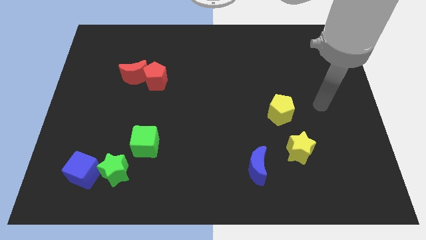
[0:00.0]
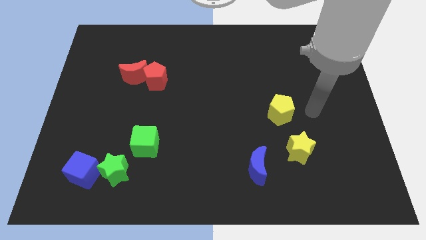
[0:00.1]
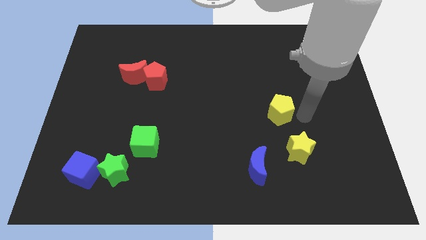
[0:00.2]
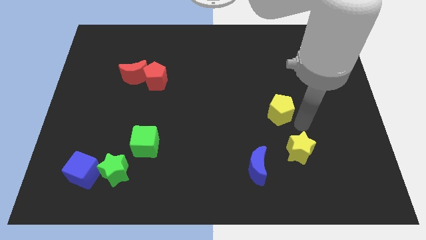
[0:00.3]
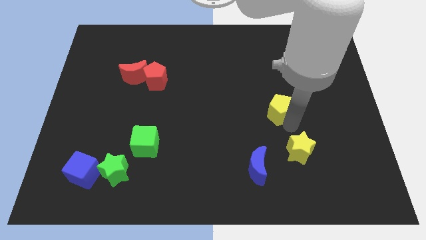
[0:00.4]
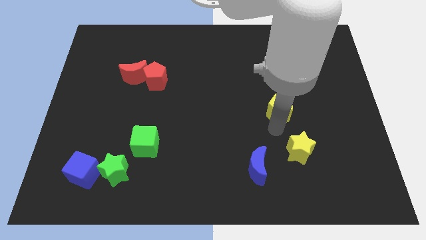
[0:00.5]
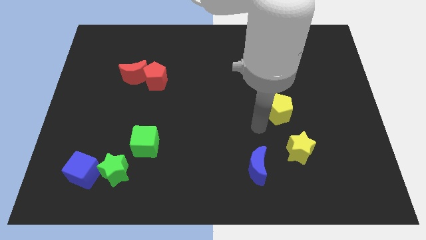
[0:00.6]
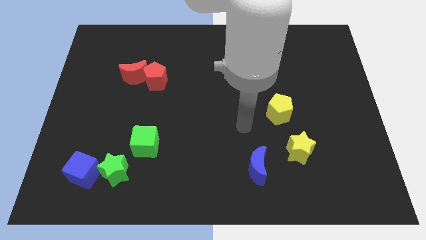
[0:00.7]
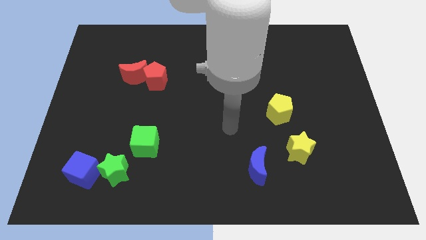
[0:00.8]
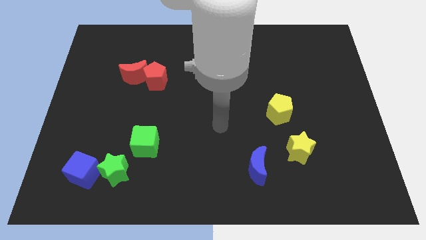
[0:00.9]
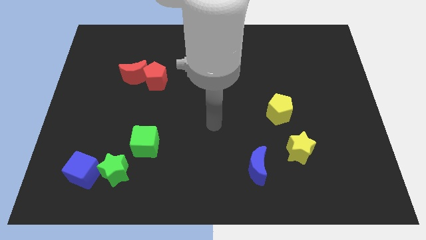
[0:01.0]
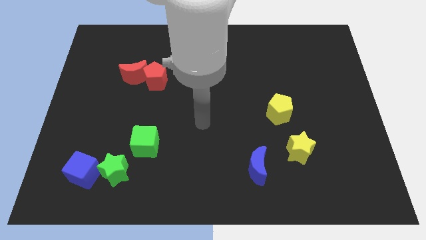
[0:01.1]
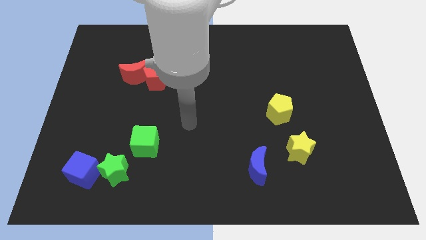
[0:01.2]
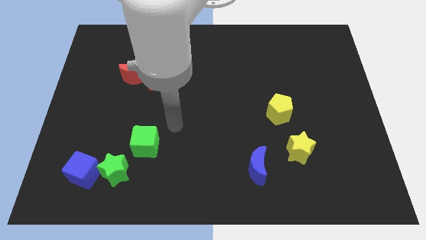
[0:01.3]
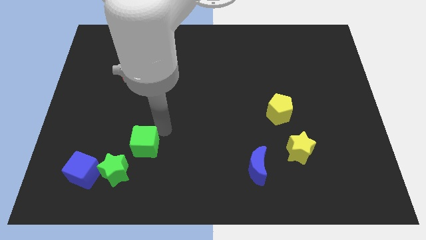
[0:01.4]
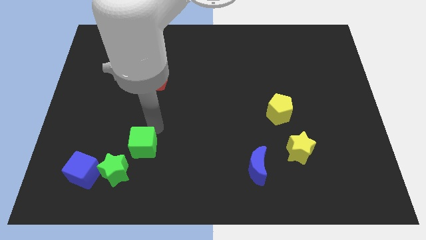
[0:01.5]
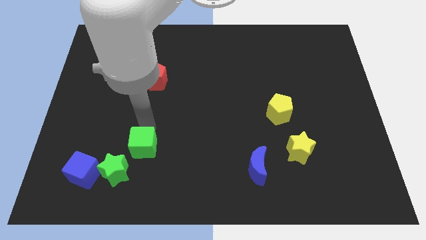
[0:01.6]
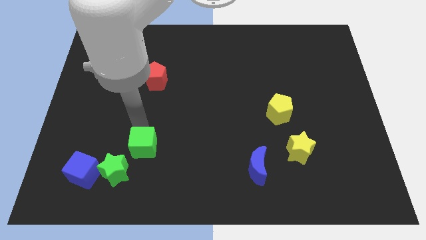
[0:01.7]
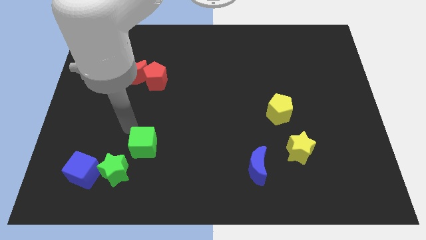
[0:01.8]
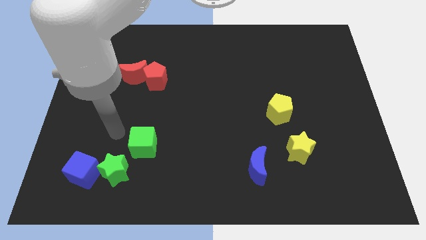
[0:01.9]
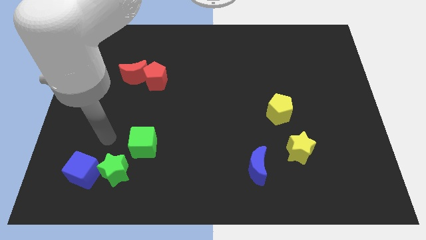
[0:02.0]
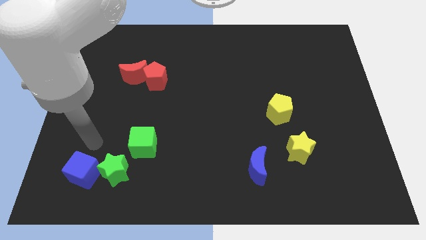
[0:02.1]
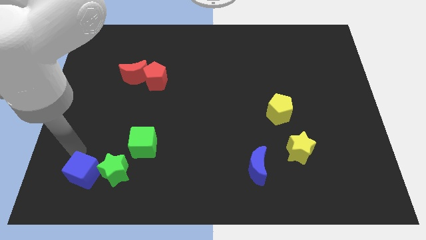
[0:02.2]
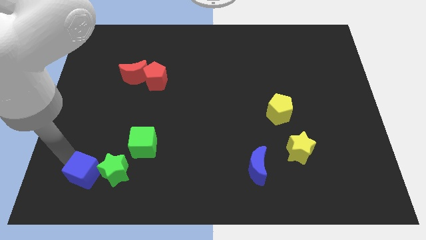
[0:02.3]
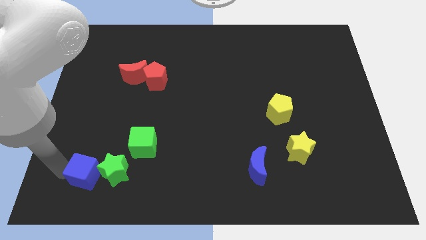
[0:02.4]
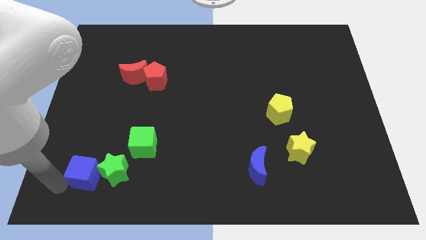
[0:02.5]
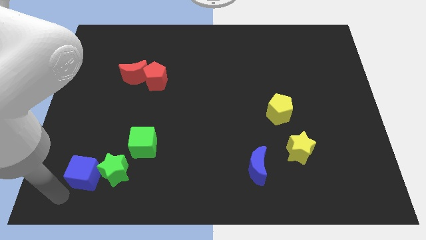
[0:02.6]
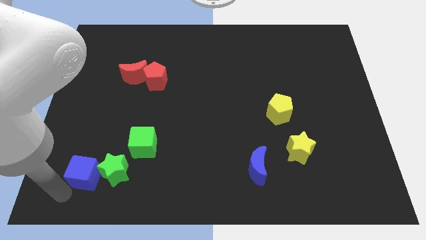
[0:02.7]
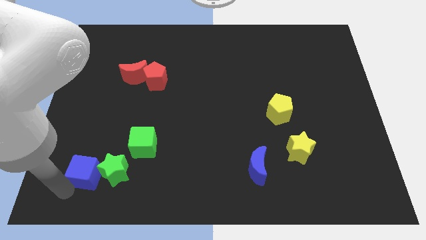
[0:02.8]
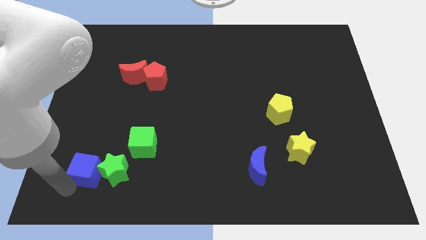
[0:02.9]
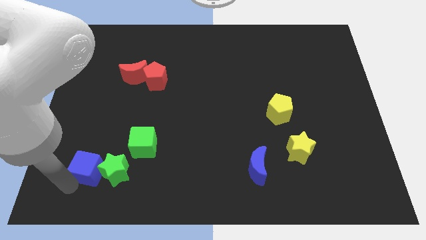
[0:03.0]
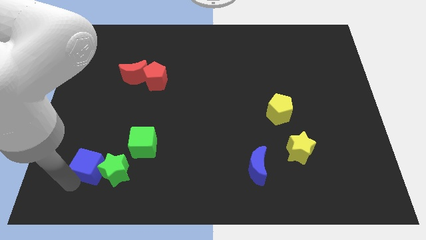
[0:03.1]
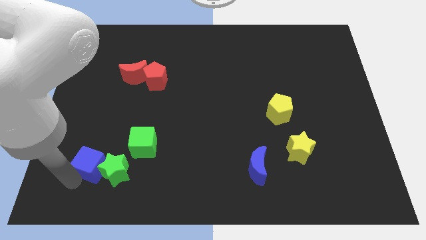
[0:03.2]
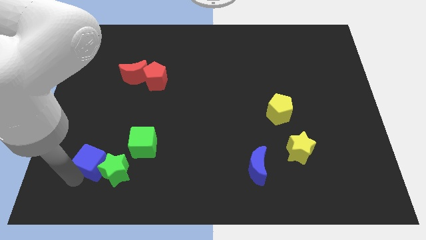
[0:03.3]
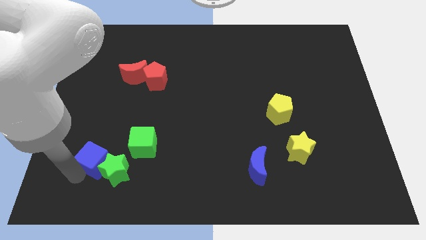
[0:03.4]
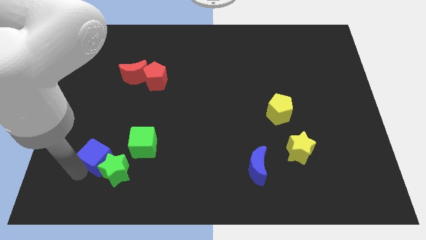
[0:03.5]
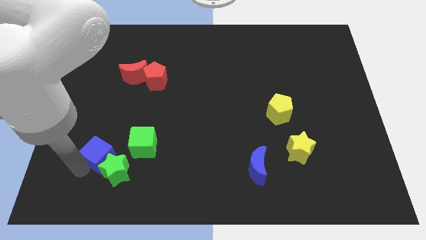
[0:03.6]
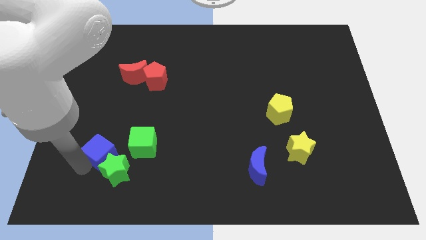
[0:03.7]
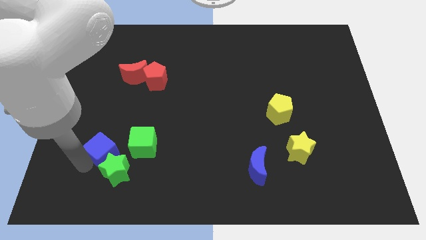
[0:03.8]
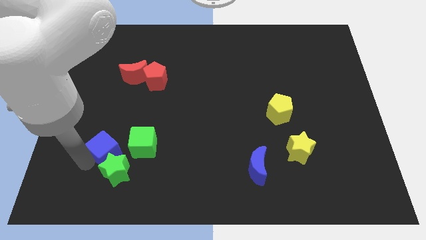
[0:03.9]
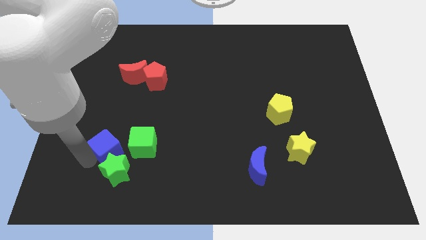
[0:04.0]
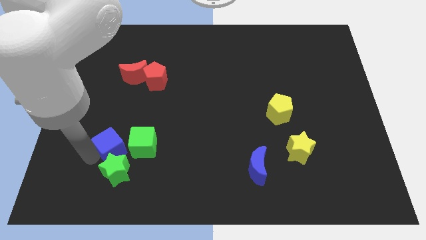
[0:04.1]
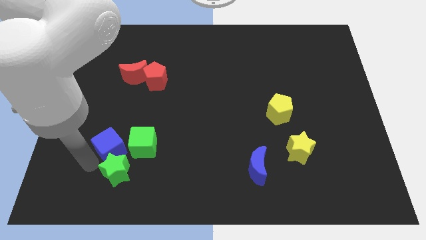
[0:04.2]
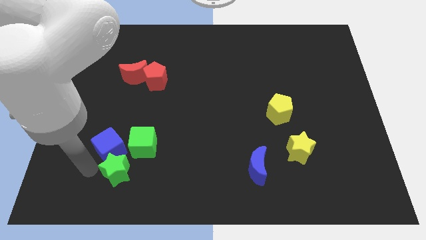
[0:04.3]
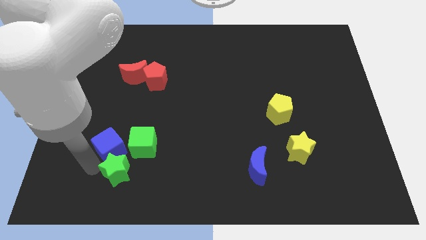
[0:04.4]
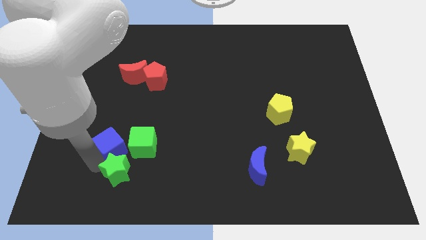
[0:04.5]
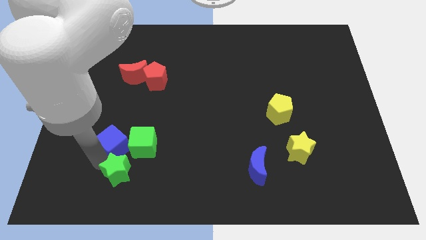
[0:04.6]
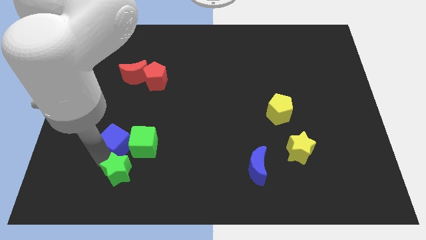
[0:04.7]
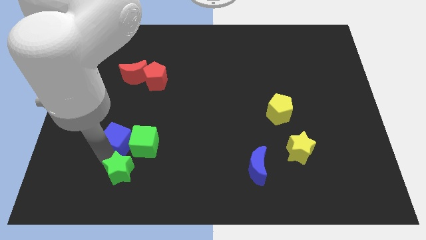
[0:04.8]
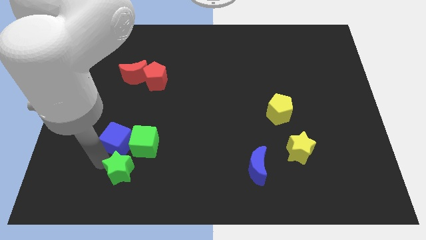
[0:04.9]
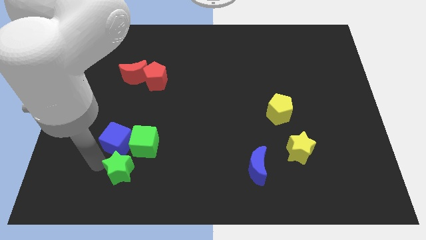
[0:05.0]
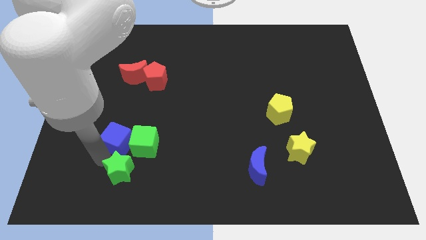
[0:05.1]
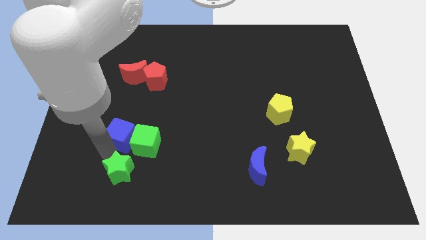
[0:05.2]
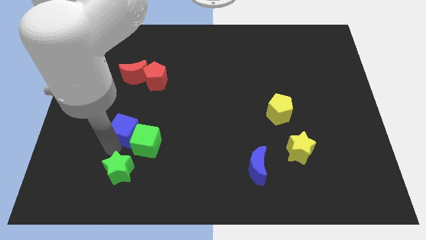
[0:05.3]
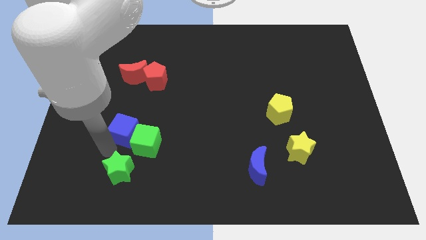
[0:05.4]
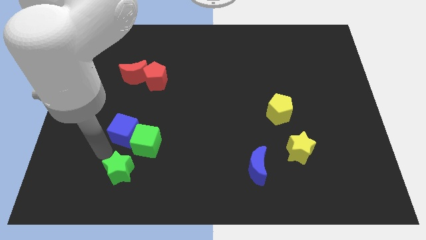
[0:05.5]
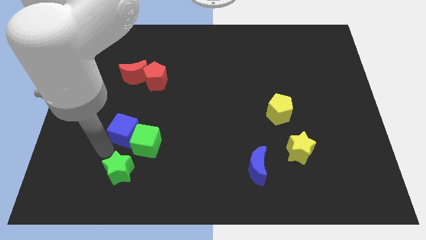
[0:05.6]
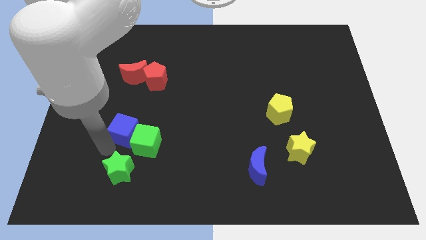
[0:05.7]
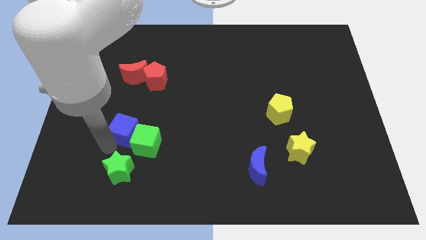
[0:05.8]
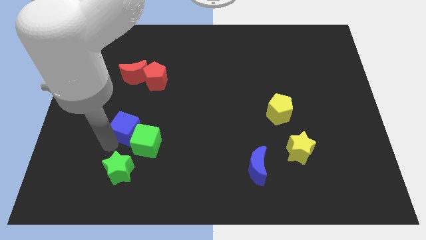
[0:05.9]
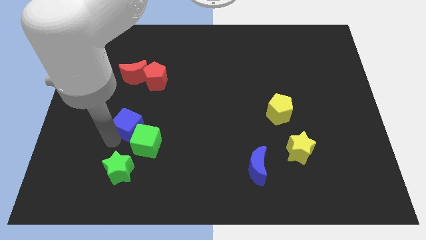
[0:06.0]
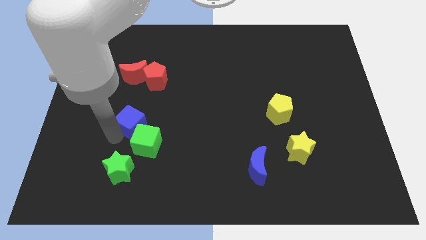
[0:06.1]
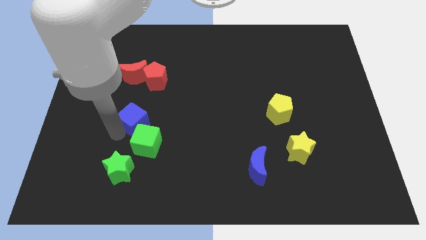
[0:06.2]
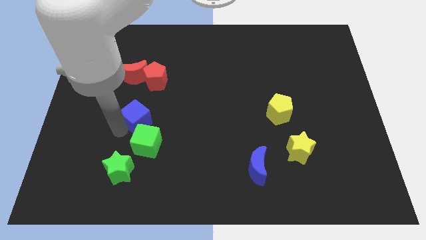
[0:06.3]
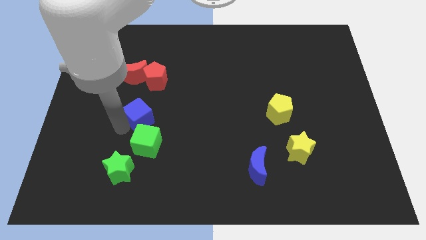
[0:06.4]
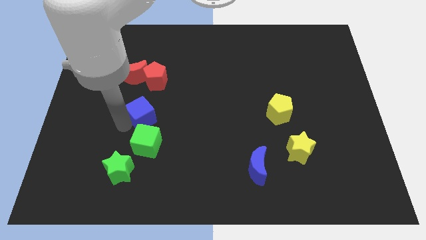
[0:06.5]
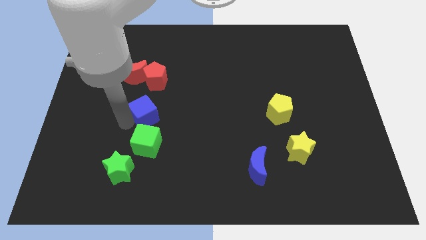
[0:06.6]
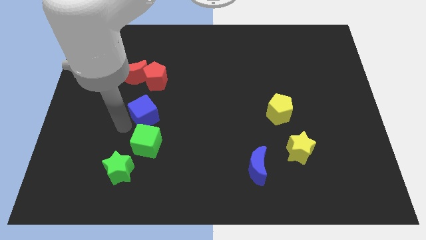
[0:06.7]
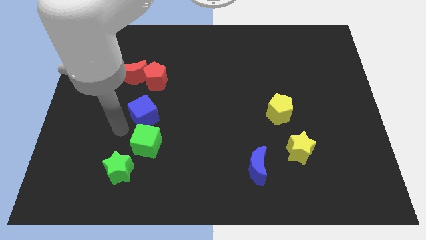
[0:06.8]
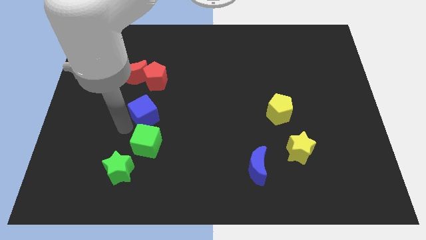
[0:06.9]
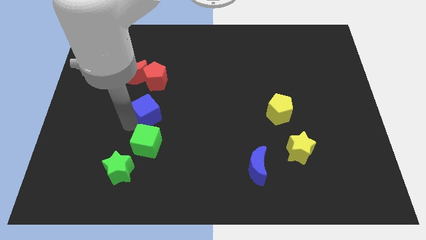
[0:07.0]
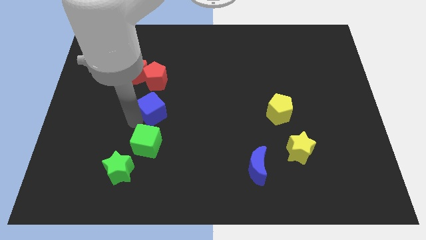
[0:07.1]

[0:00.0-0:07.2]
push the blue cube upwards and then right

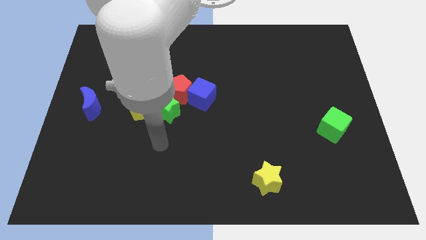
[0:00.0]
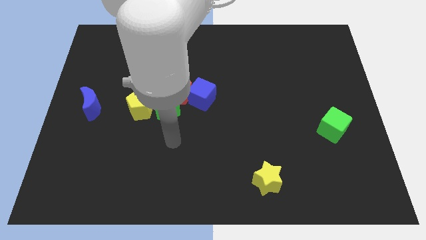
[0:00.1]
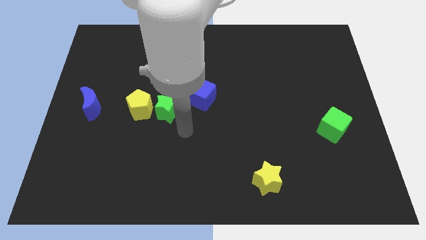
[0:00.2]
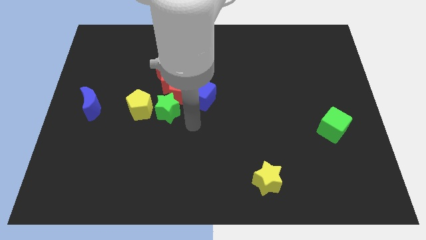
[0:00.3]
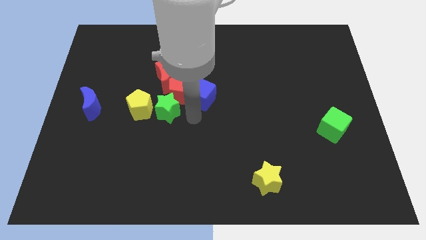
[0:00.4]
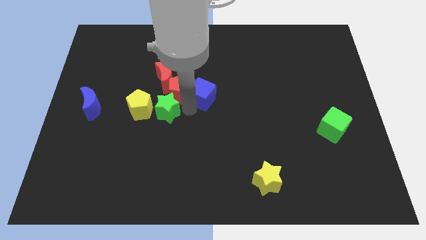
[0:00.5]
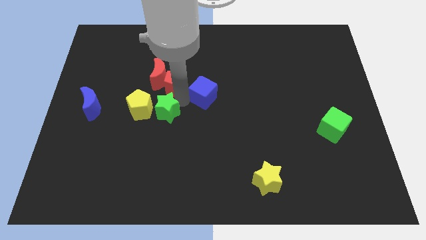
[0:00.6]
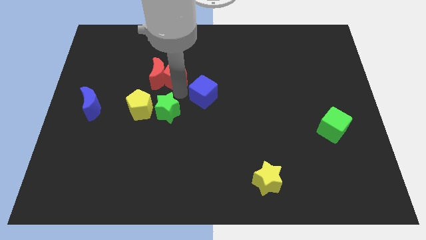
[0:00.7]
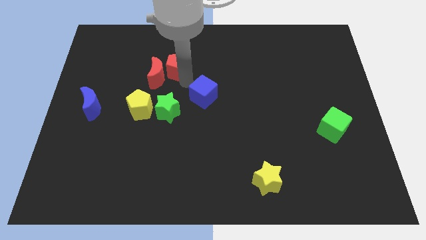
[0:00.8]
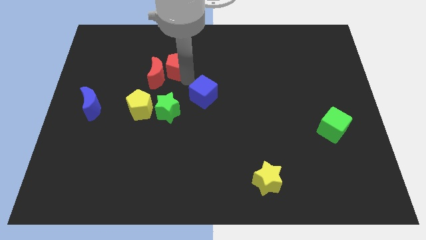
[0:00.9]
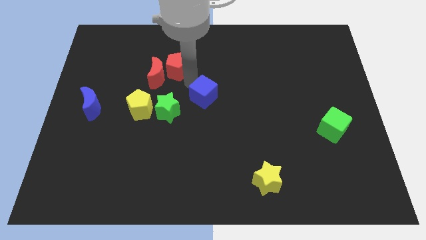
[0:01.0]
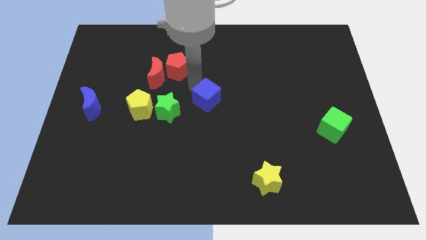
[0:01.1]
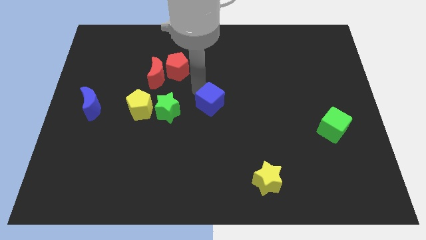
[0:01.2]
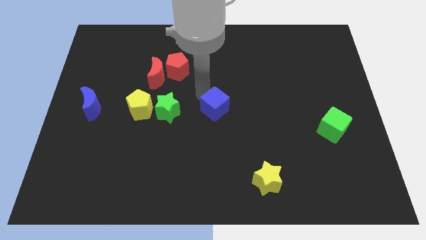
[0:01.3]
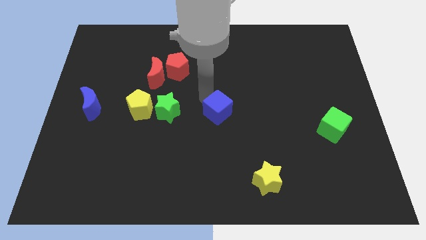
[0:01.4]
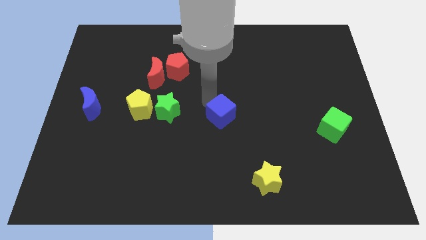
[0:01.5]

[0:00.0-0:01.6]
push the blue cube a little bit diagonally downwards and right
